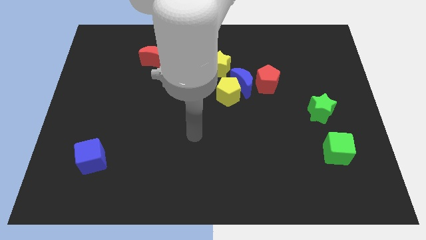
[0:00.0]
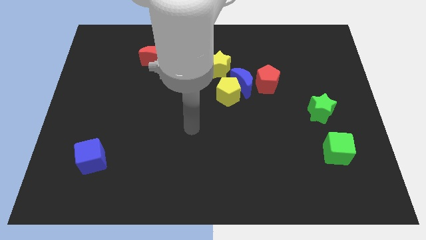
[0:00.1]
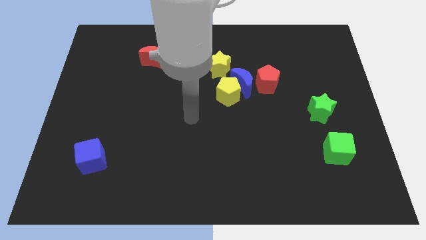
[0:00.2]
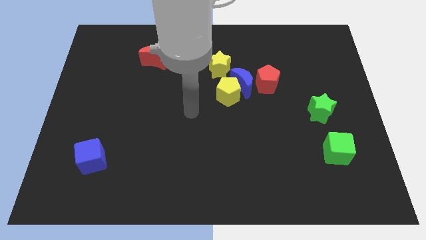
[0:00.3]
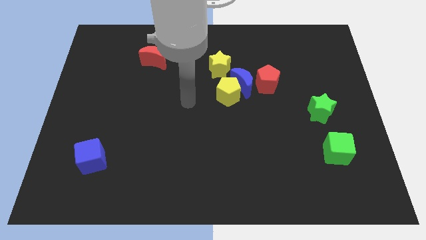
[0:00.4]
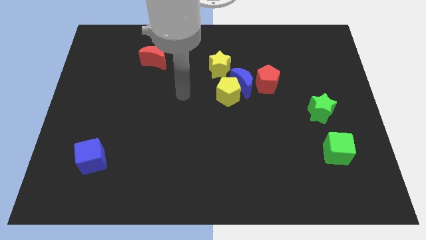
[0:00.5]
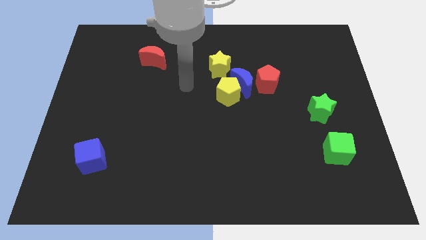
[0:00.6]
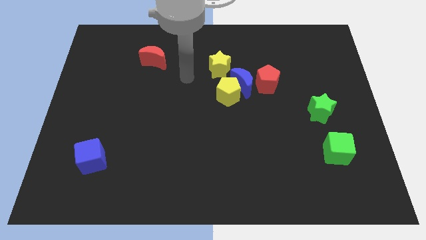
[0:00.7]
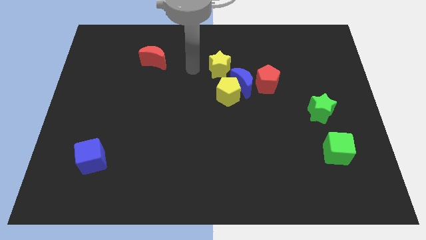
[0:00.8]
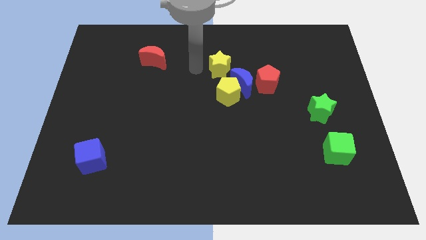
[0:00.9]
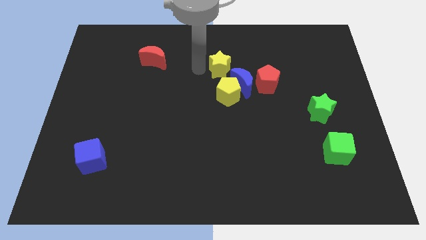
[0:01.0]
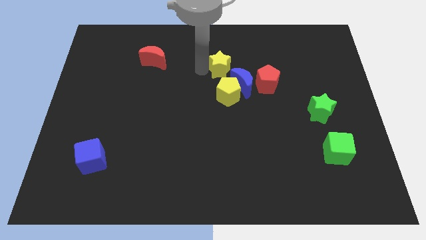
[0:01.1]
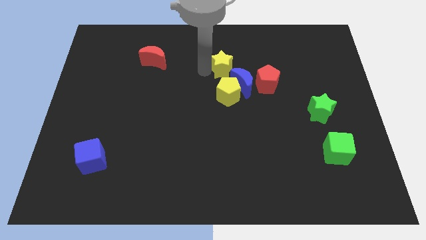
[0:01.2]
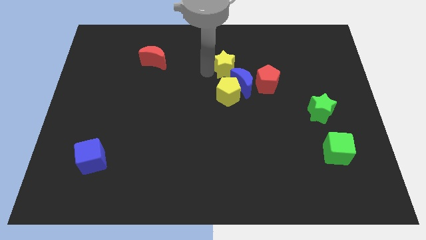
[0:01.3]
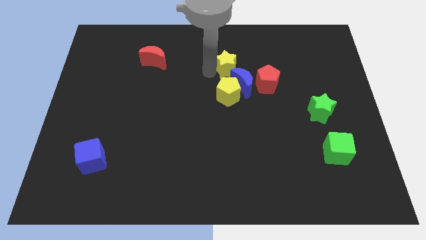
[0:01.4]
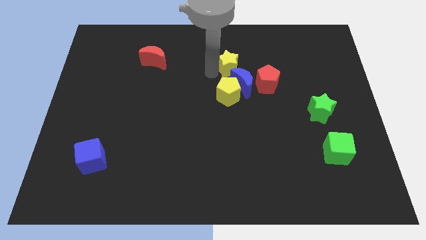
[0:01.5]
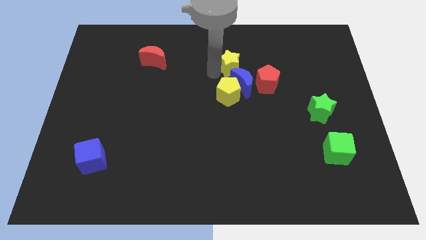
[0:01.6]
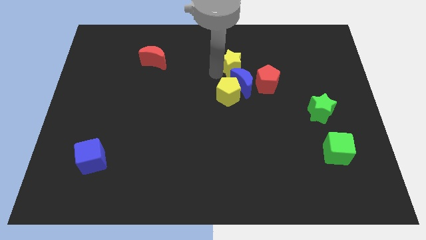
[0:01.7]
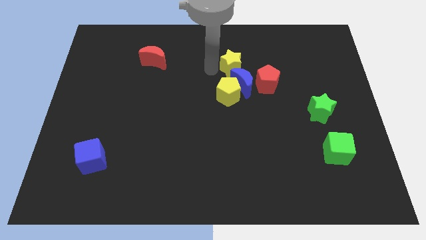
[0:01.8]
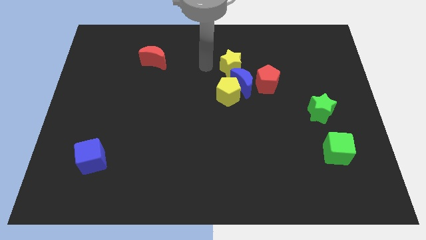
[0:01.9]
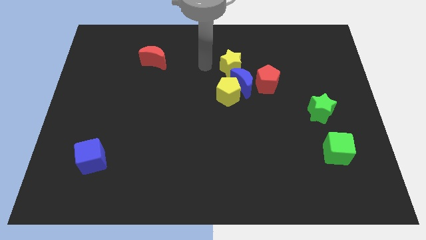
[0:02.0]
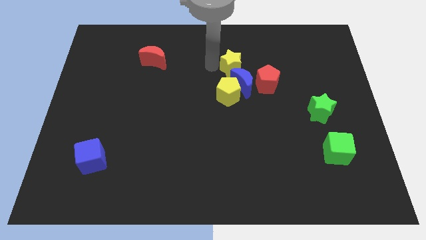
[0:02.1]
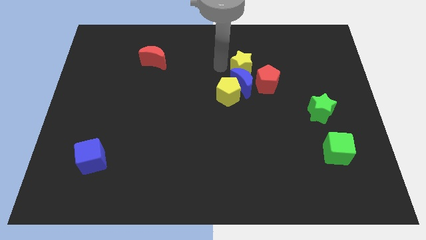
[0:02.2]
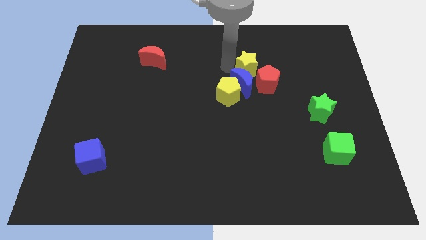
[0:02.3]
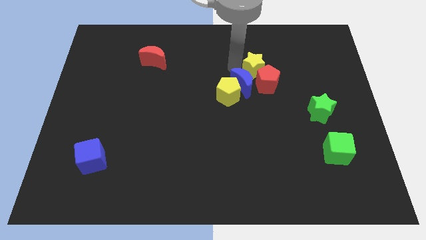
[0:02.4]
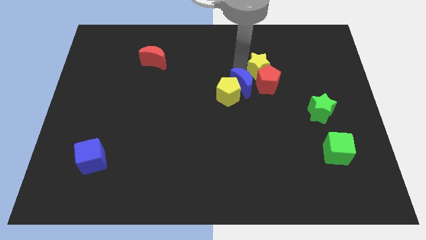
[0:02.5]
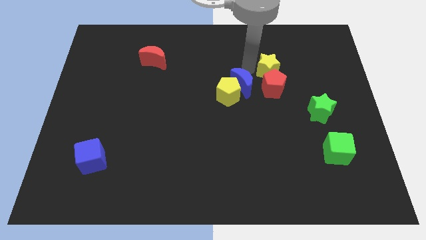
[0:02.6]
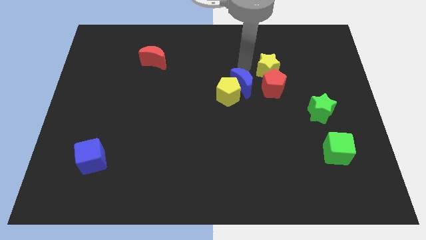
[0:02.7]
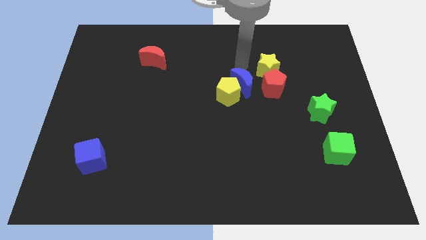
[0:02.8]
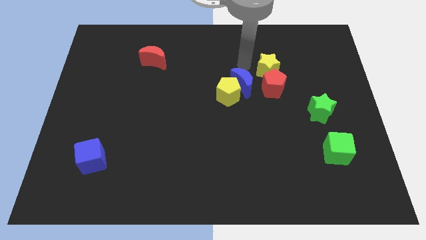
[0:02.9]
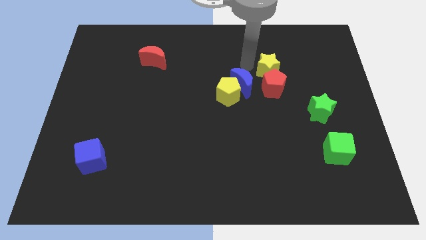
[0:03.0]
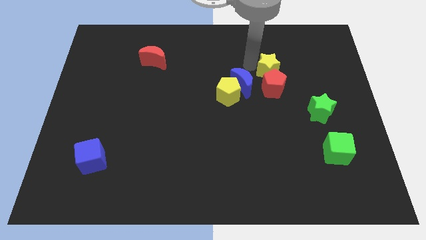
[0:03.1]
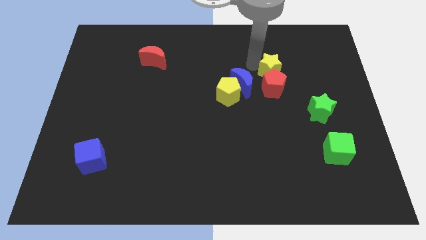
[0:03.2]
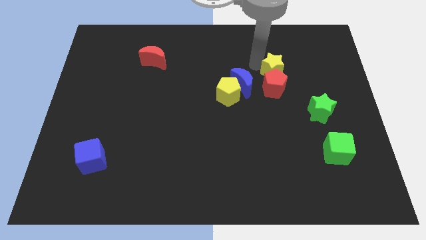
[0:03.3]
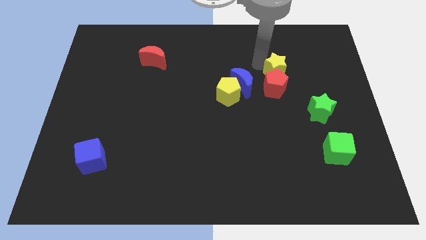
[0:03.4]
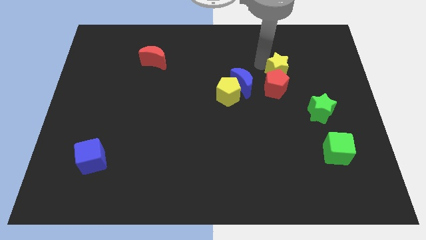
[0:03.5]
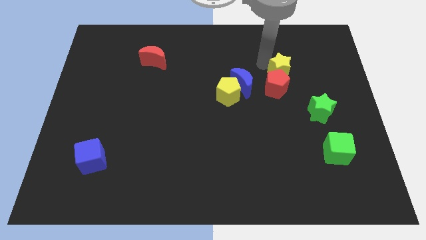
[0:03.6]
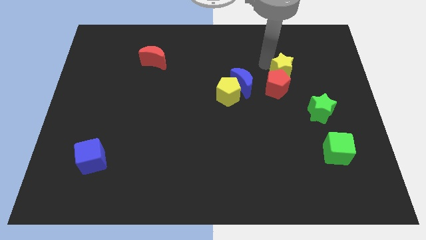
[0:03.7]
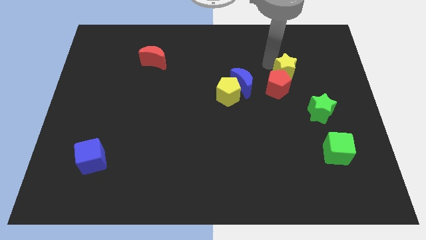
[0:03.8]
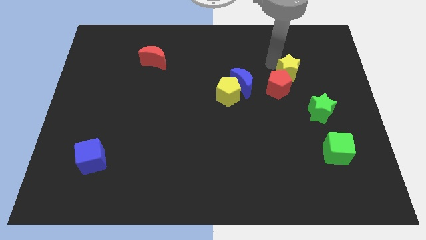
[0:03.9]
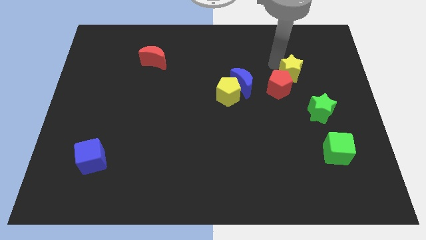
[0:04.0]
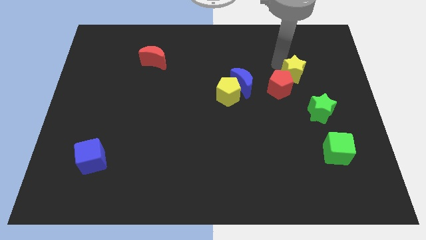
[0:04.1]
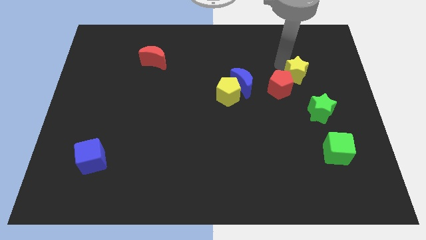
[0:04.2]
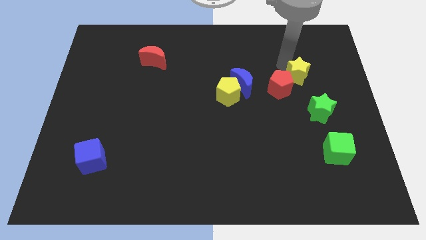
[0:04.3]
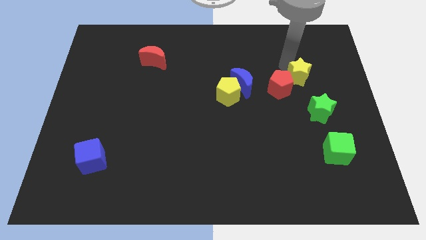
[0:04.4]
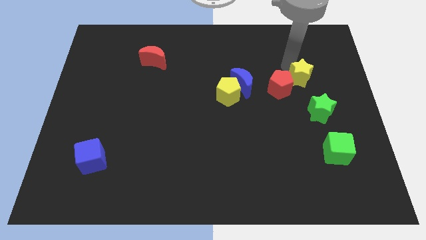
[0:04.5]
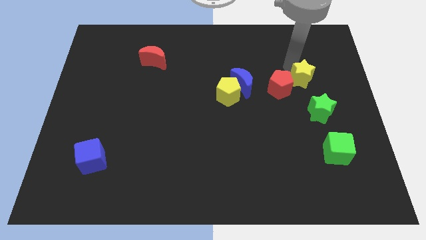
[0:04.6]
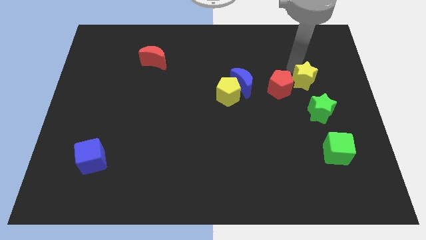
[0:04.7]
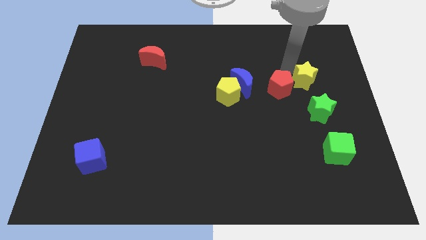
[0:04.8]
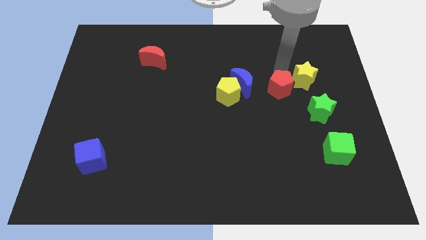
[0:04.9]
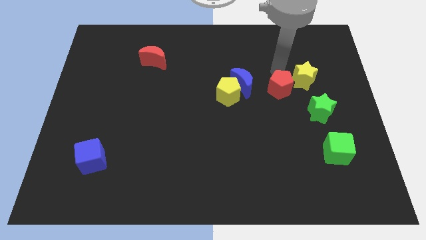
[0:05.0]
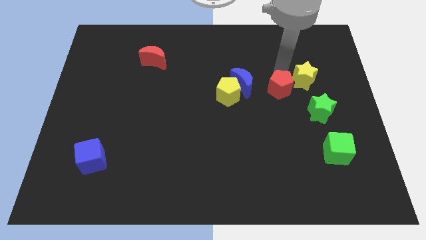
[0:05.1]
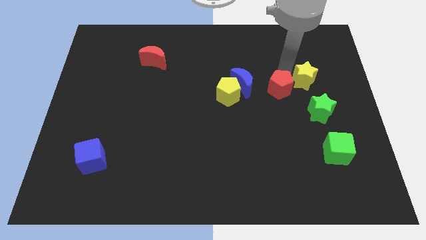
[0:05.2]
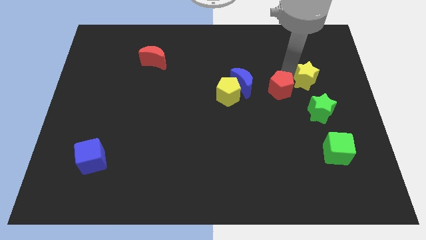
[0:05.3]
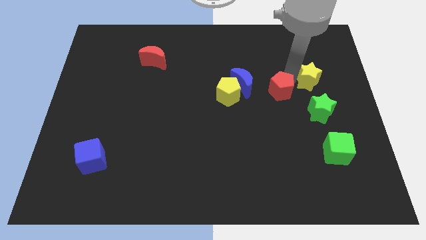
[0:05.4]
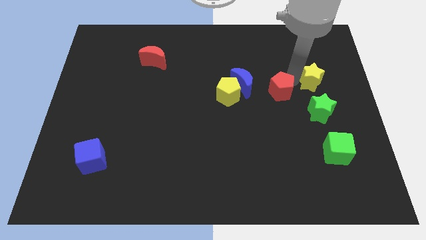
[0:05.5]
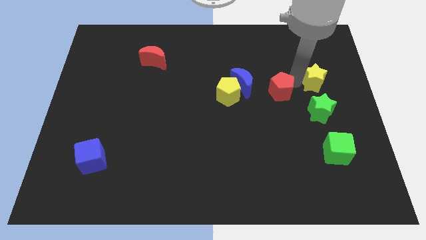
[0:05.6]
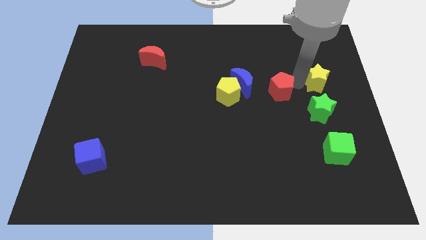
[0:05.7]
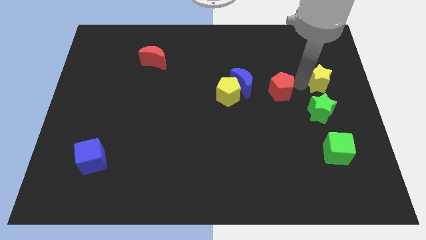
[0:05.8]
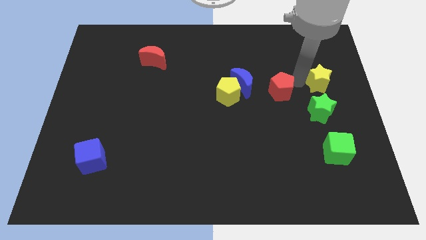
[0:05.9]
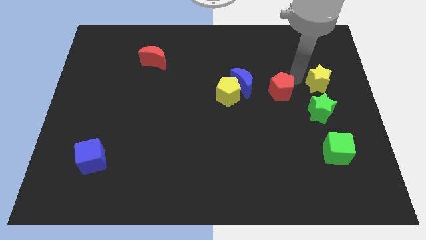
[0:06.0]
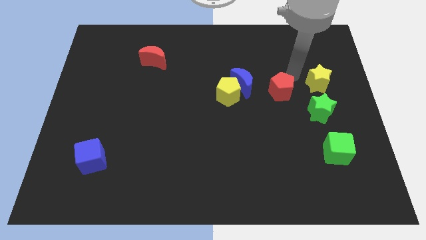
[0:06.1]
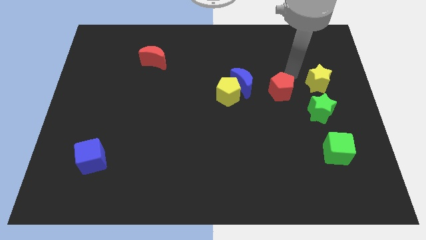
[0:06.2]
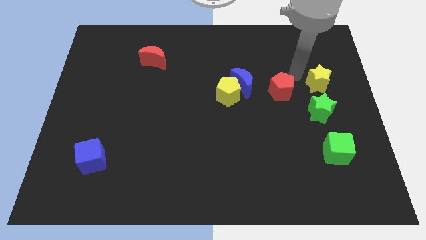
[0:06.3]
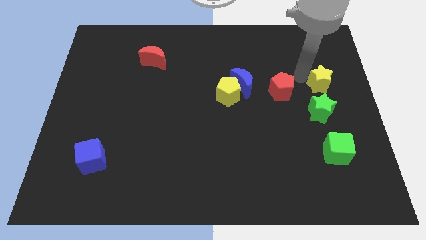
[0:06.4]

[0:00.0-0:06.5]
push the yellow star to the right side of the board
